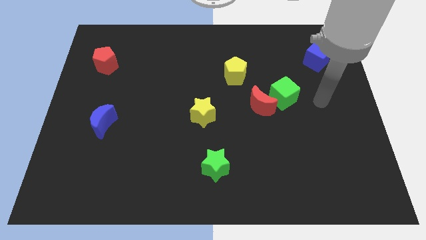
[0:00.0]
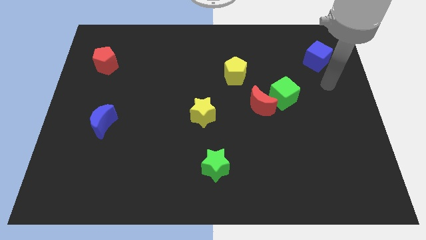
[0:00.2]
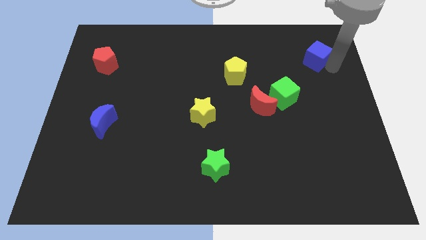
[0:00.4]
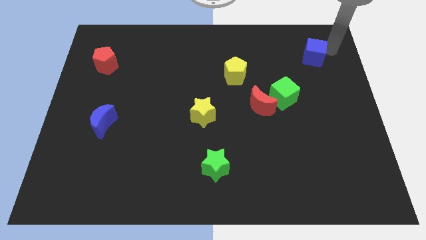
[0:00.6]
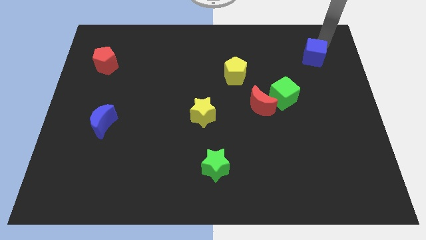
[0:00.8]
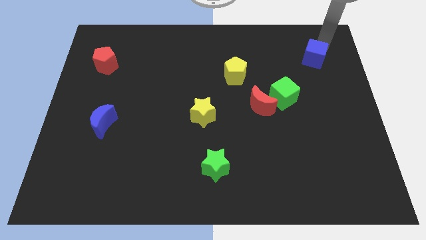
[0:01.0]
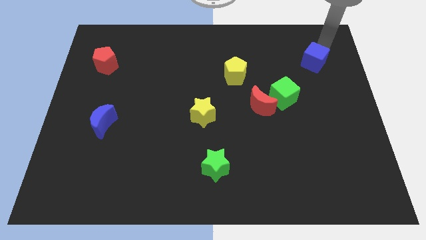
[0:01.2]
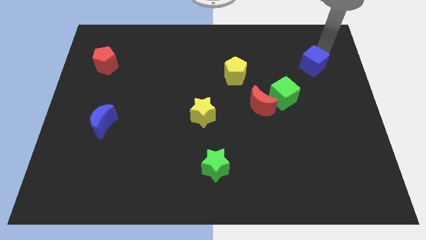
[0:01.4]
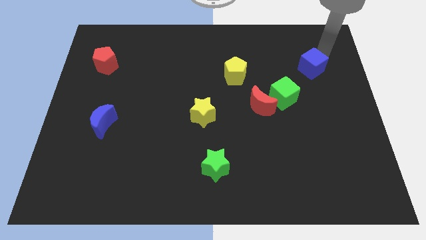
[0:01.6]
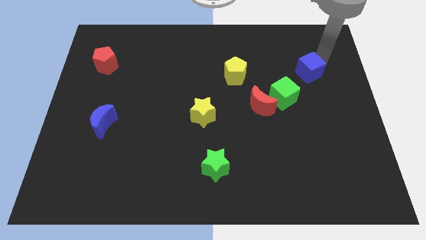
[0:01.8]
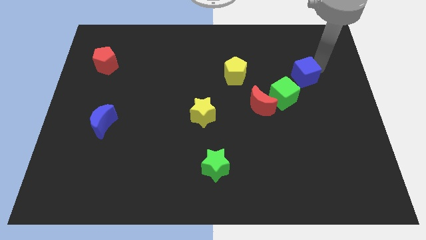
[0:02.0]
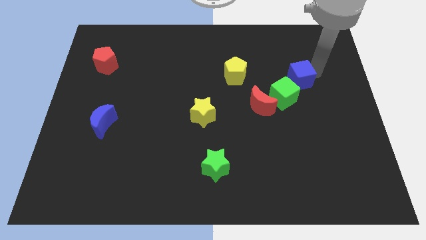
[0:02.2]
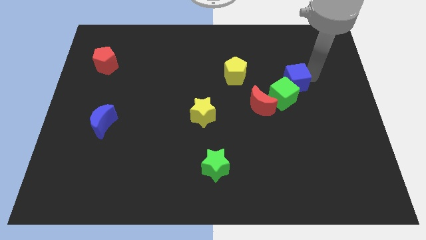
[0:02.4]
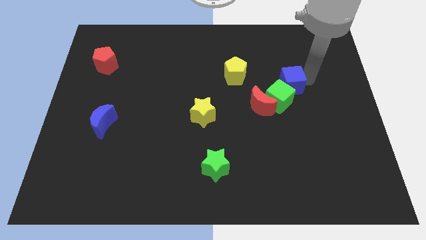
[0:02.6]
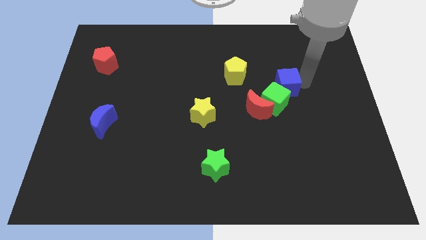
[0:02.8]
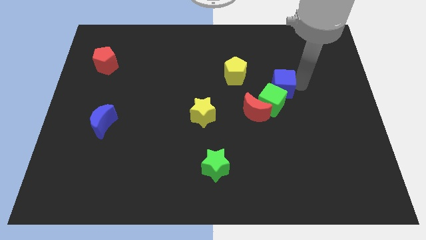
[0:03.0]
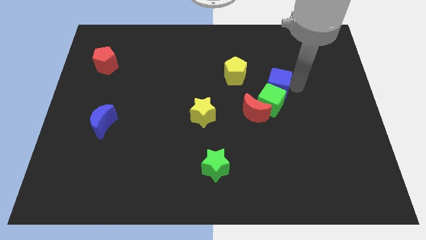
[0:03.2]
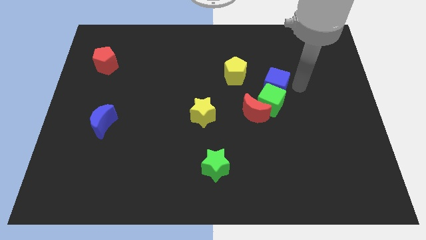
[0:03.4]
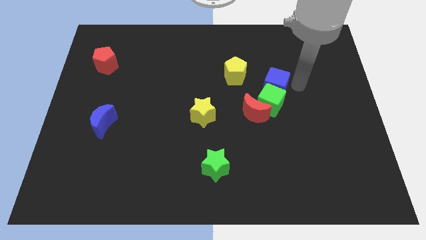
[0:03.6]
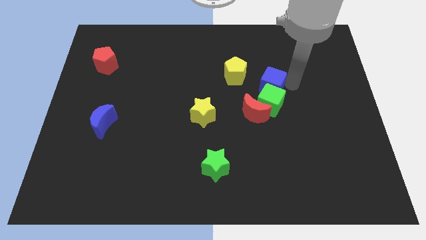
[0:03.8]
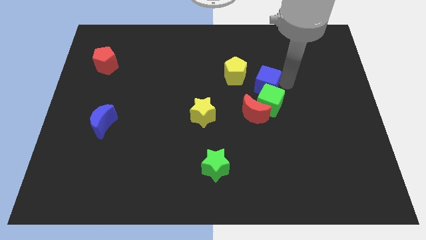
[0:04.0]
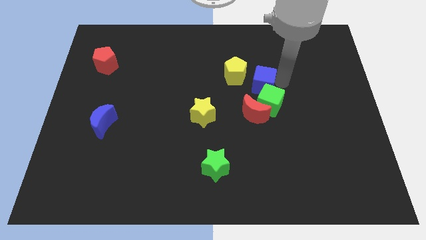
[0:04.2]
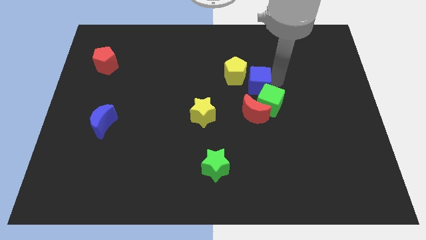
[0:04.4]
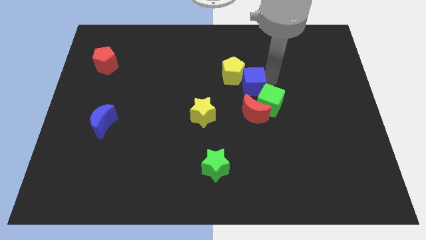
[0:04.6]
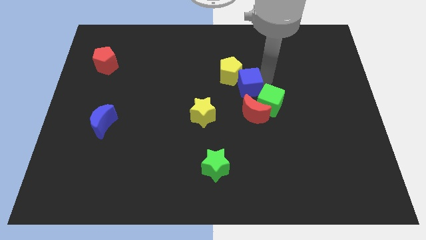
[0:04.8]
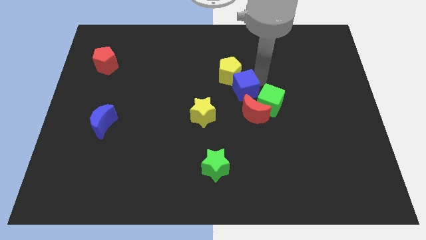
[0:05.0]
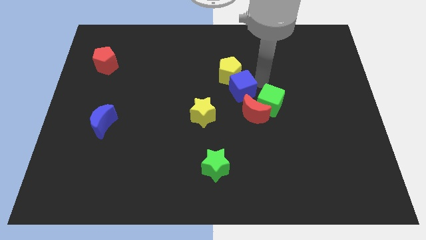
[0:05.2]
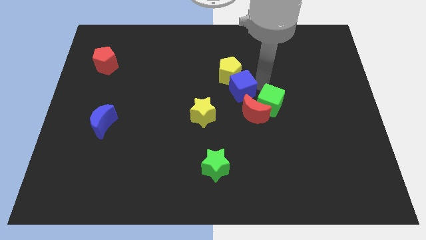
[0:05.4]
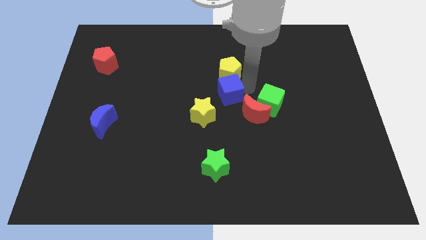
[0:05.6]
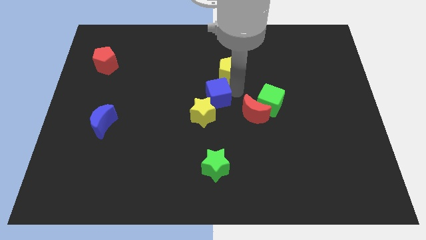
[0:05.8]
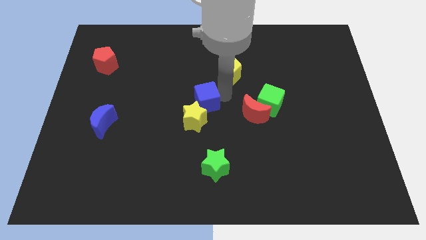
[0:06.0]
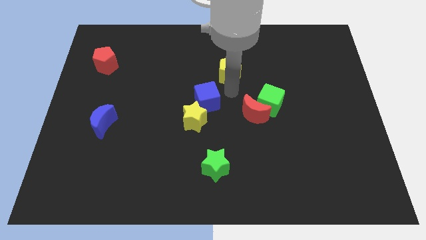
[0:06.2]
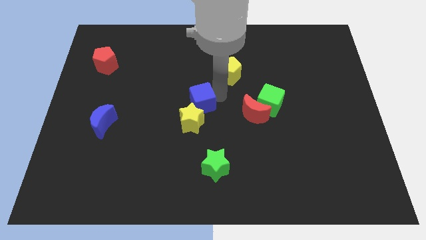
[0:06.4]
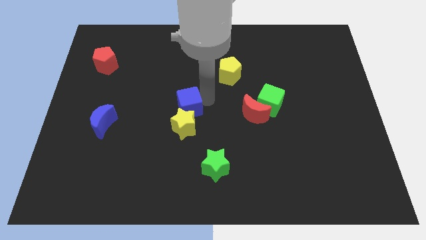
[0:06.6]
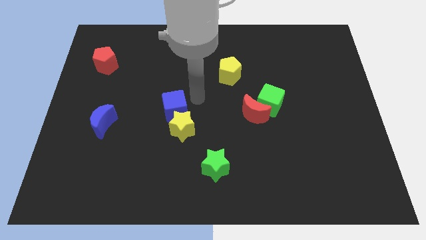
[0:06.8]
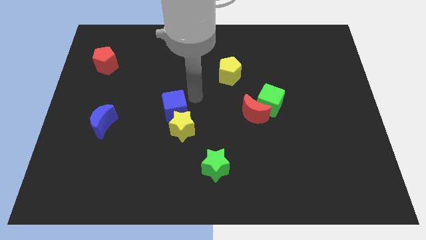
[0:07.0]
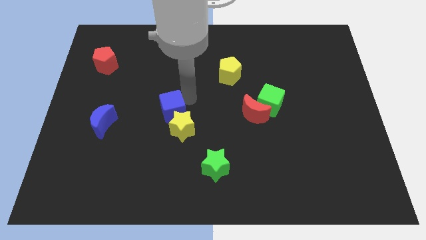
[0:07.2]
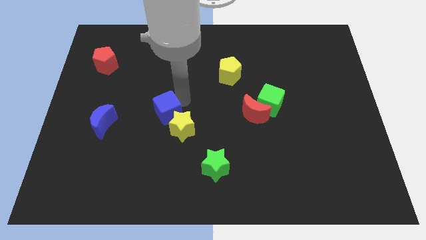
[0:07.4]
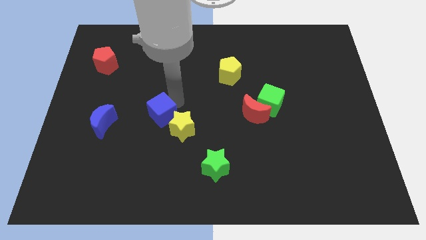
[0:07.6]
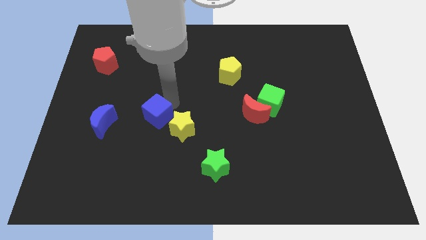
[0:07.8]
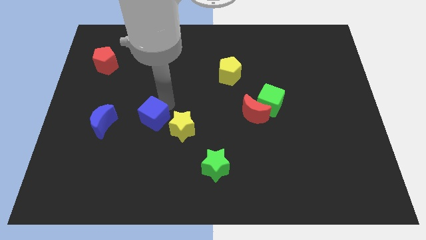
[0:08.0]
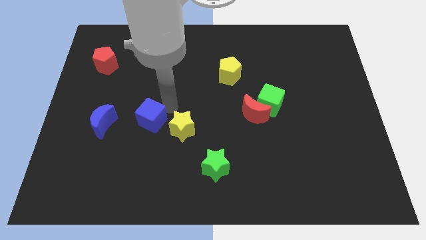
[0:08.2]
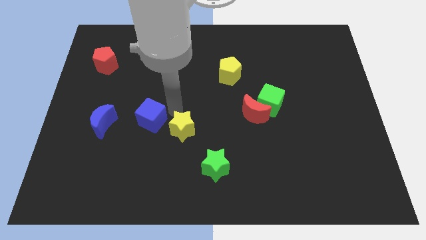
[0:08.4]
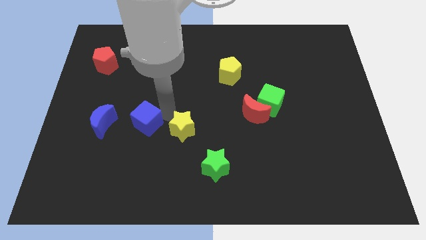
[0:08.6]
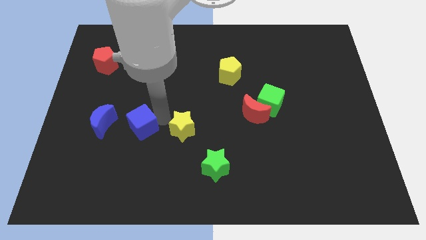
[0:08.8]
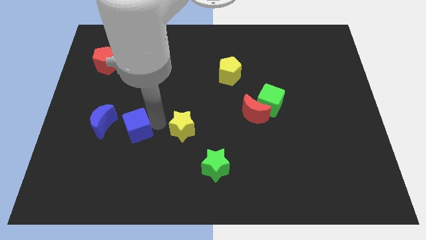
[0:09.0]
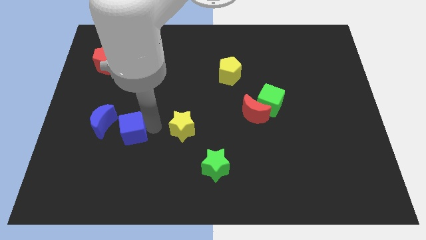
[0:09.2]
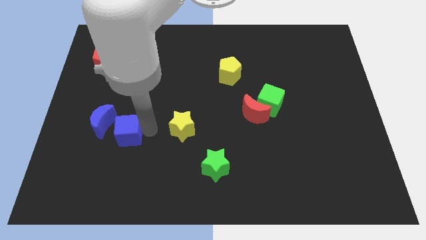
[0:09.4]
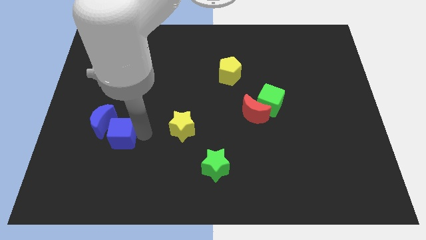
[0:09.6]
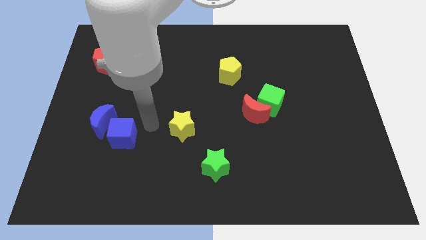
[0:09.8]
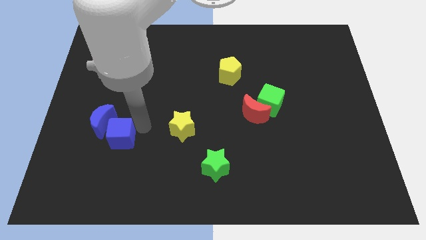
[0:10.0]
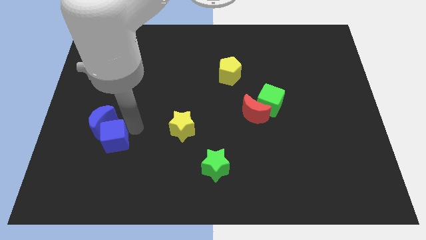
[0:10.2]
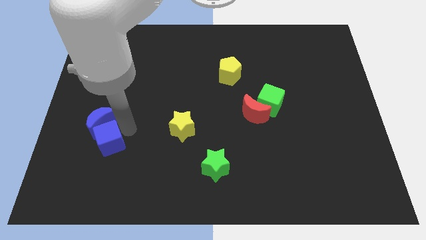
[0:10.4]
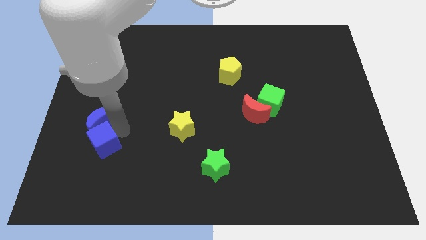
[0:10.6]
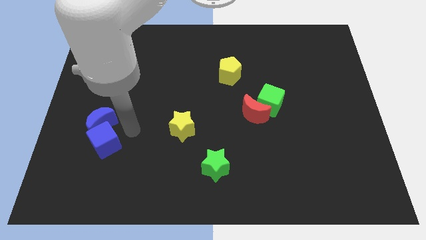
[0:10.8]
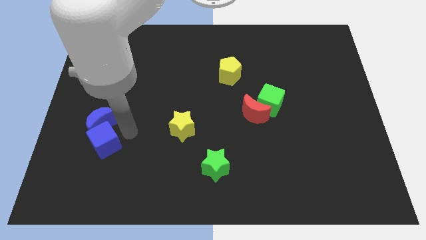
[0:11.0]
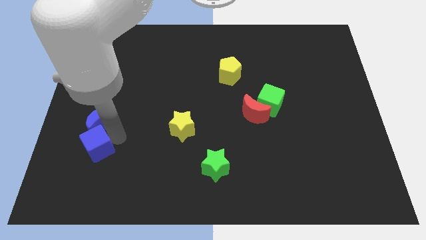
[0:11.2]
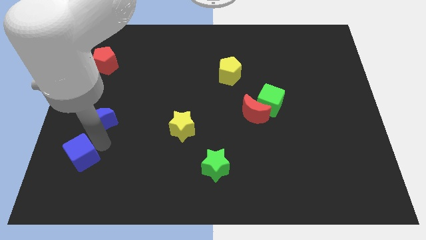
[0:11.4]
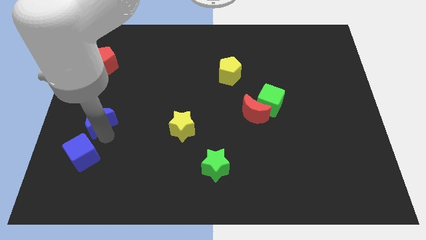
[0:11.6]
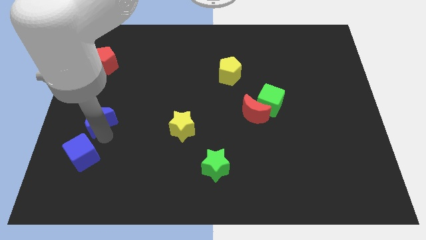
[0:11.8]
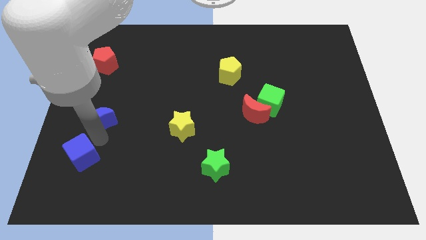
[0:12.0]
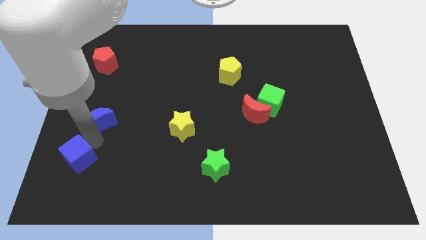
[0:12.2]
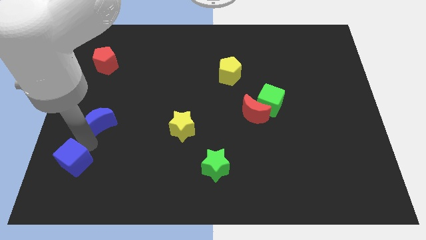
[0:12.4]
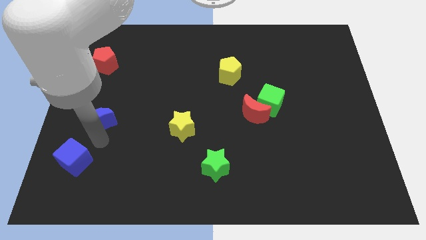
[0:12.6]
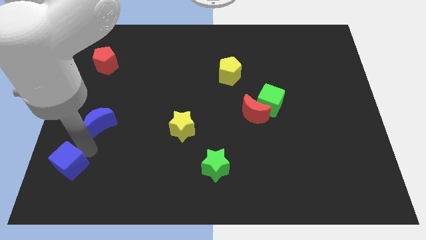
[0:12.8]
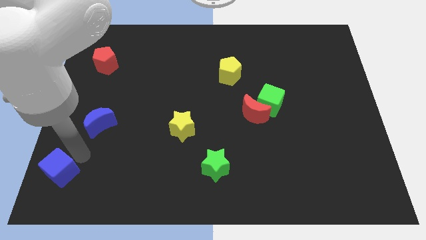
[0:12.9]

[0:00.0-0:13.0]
slide the blue cube to the bottom left of the board

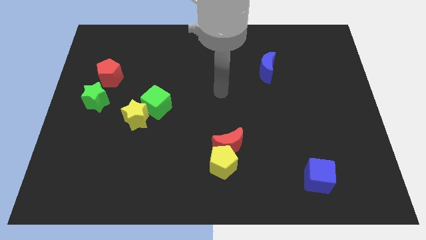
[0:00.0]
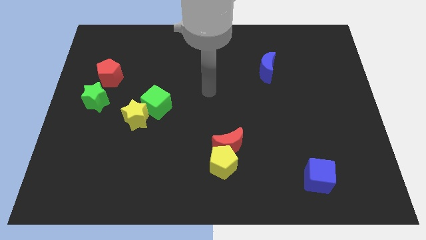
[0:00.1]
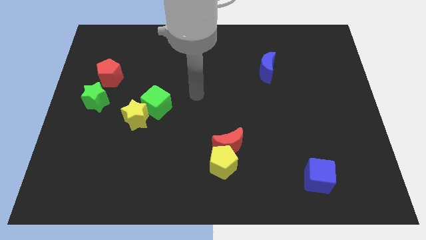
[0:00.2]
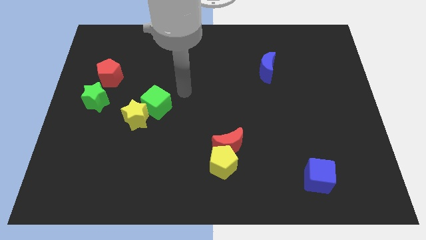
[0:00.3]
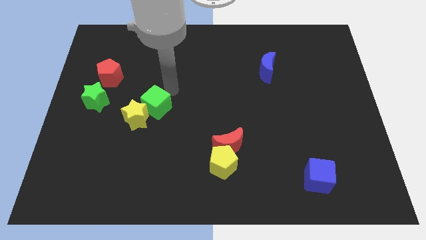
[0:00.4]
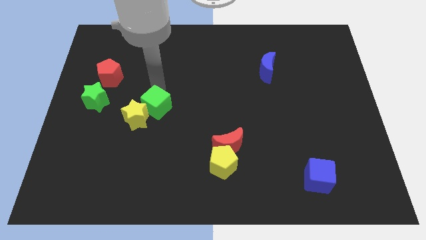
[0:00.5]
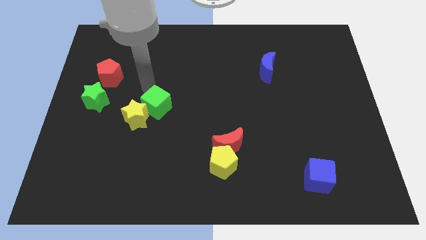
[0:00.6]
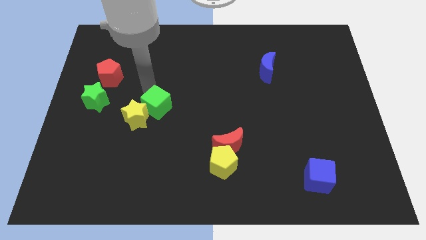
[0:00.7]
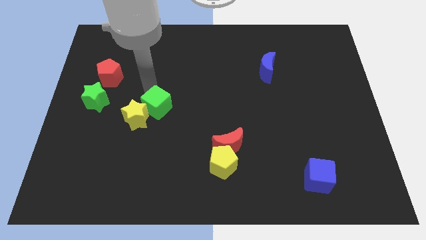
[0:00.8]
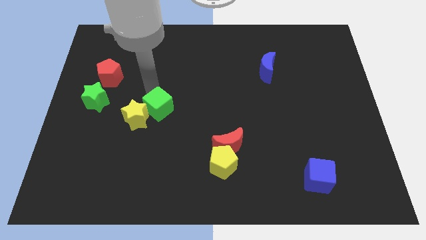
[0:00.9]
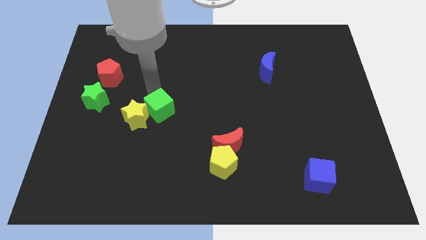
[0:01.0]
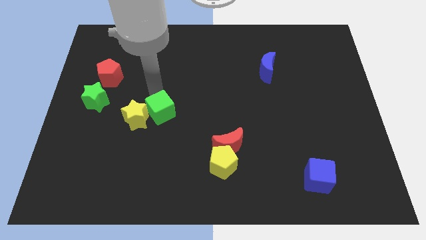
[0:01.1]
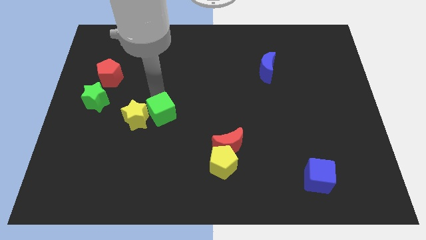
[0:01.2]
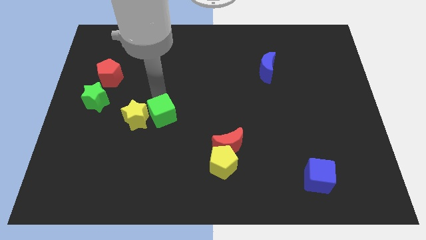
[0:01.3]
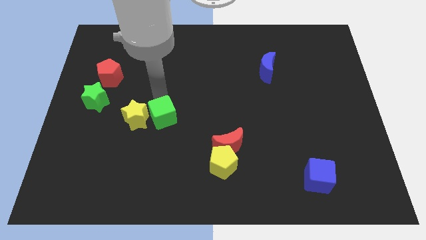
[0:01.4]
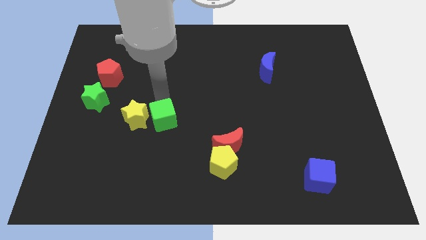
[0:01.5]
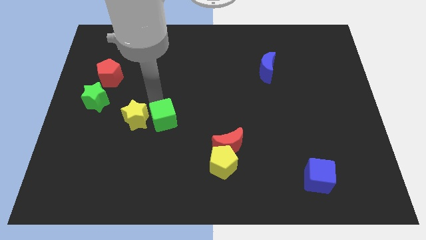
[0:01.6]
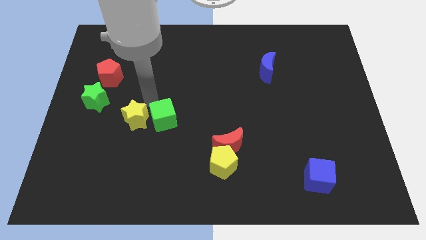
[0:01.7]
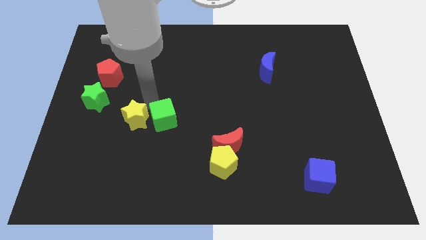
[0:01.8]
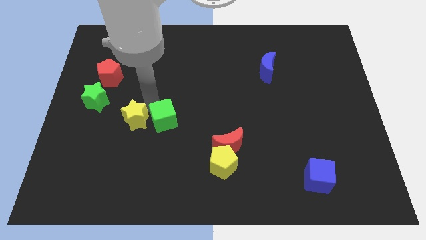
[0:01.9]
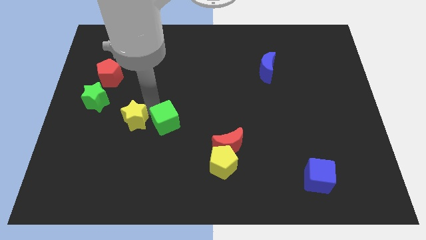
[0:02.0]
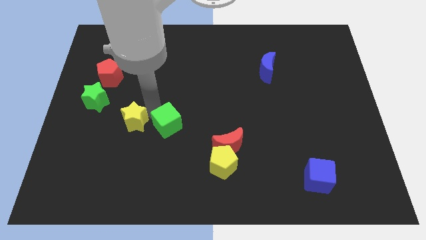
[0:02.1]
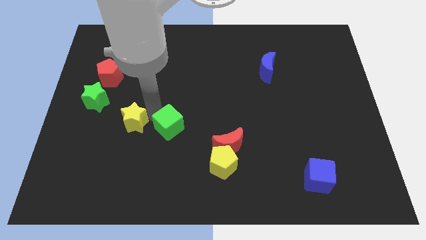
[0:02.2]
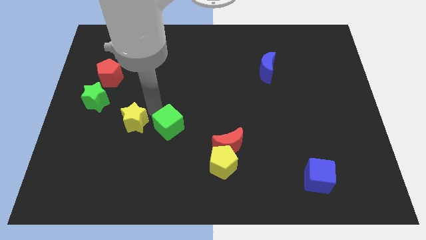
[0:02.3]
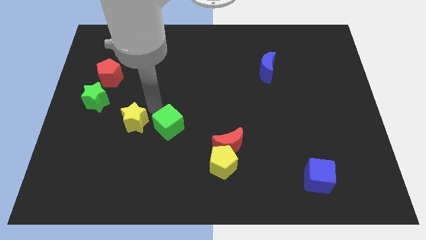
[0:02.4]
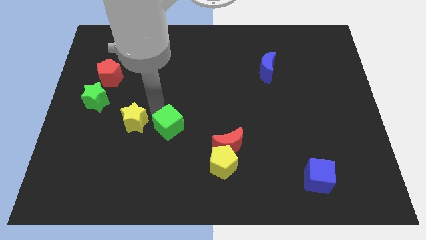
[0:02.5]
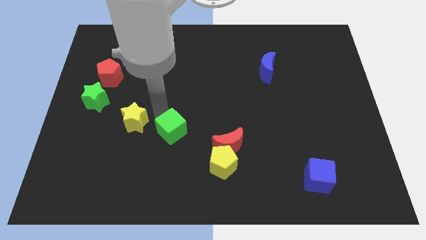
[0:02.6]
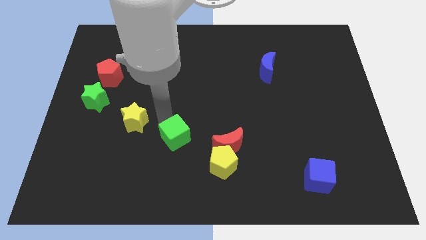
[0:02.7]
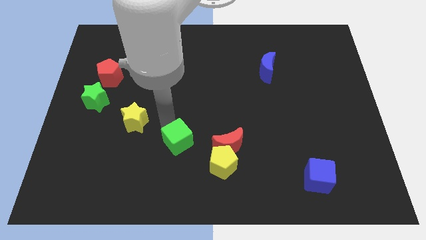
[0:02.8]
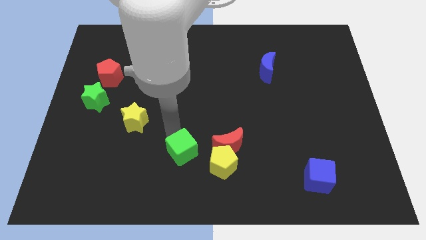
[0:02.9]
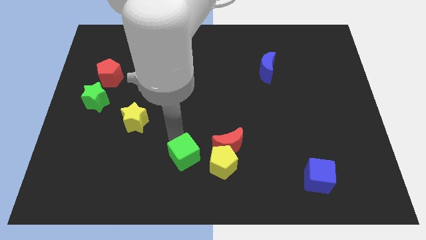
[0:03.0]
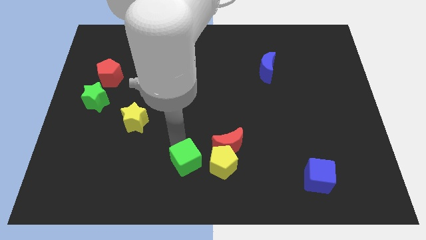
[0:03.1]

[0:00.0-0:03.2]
put the green cube to the bottom
